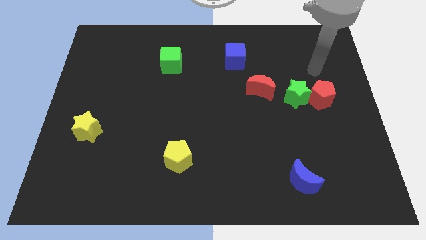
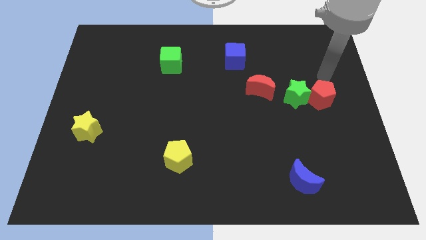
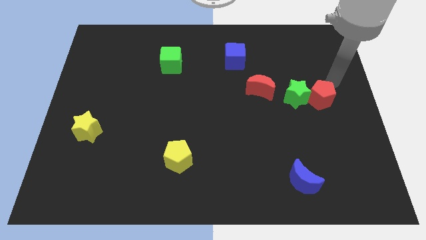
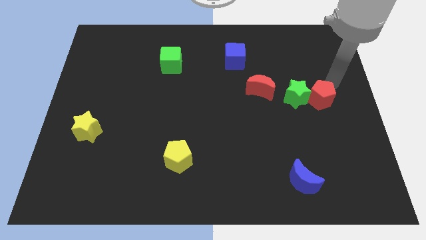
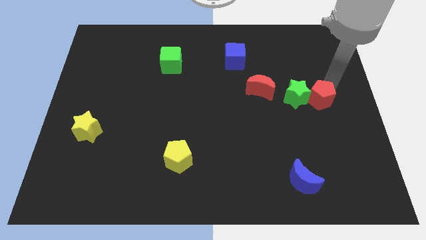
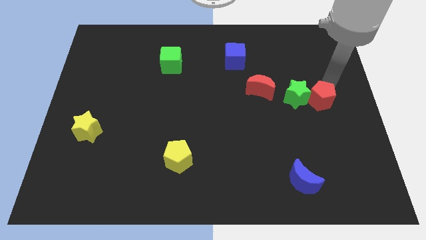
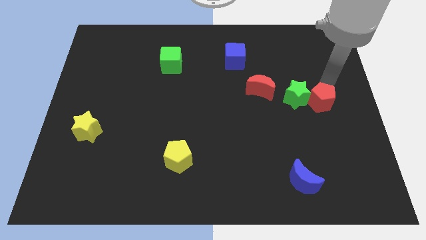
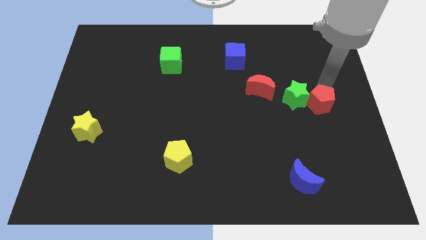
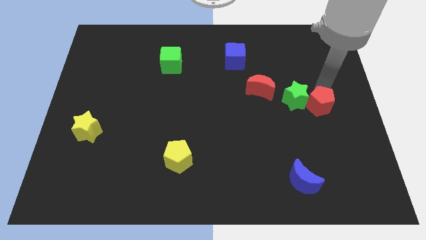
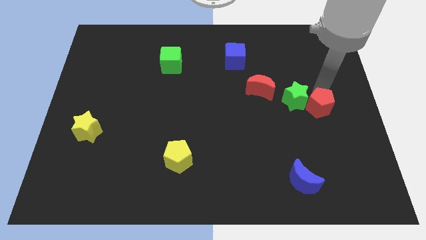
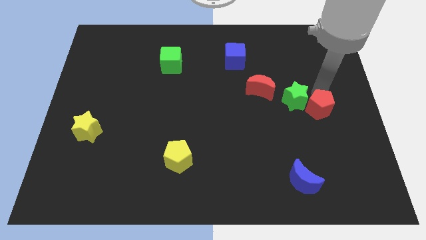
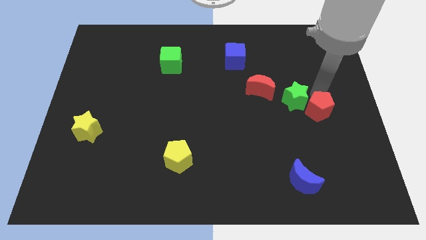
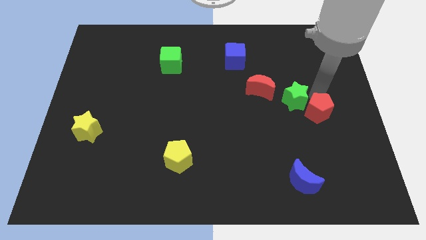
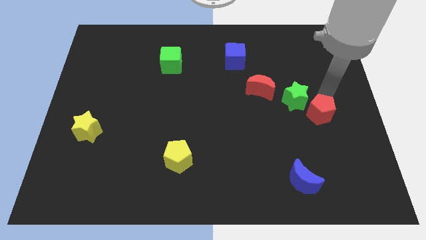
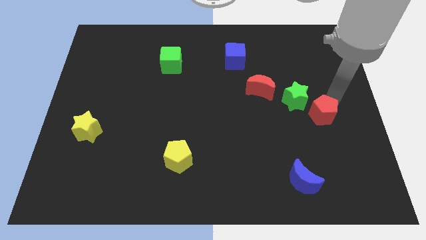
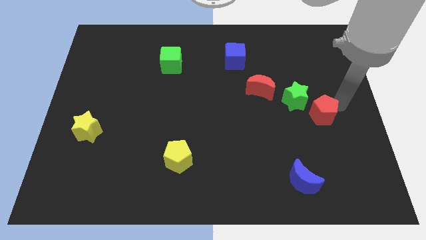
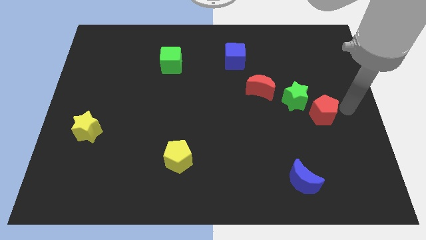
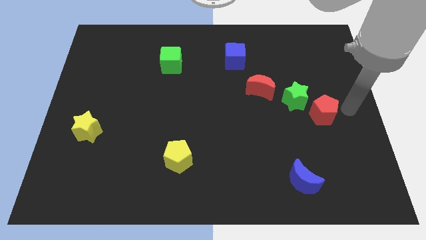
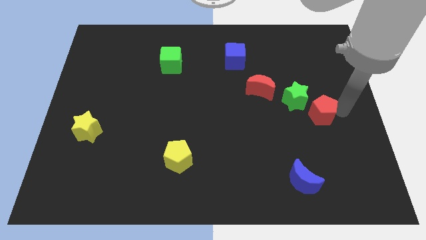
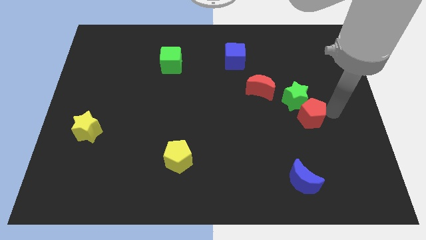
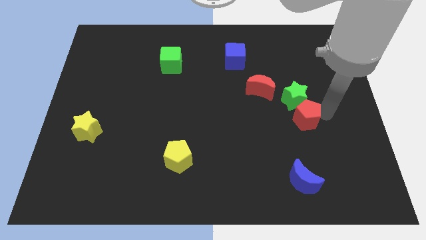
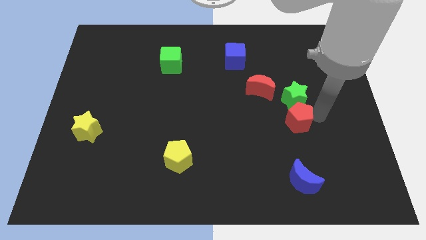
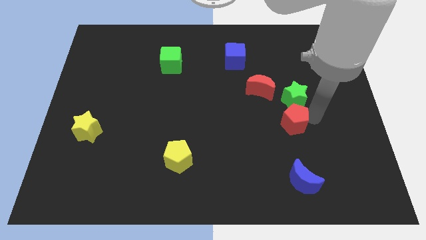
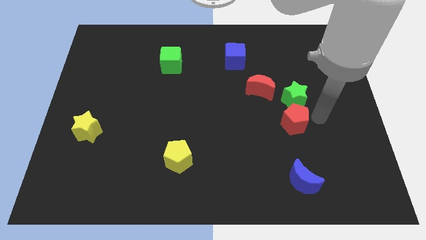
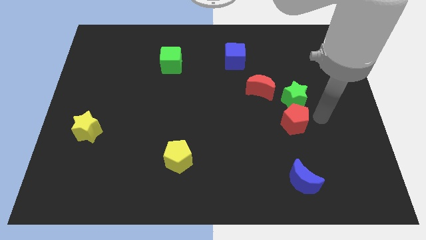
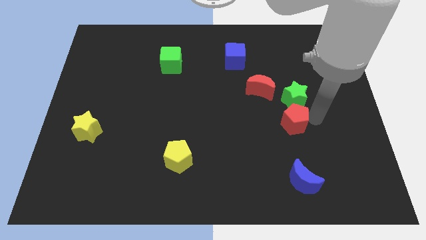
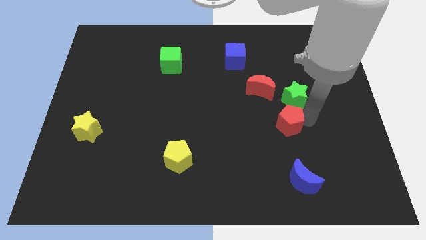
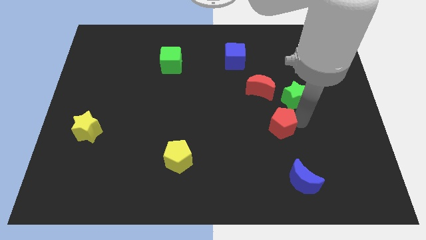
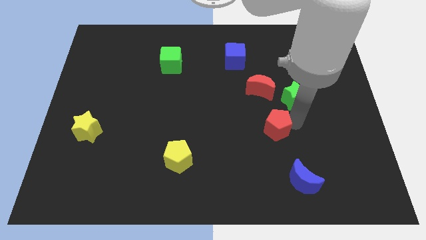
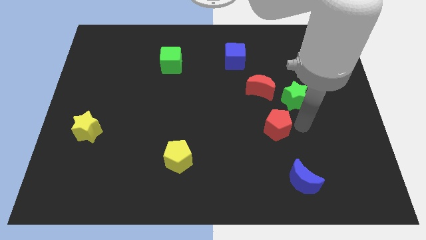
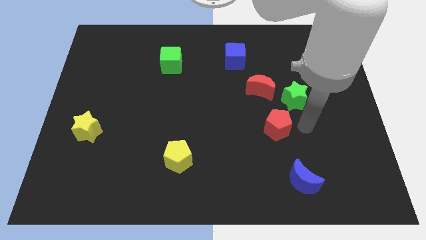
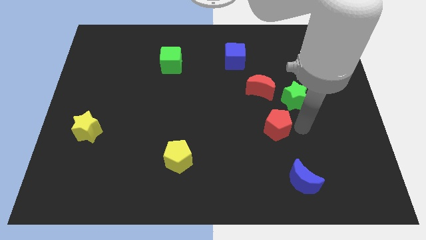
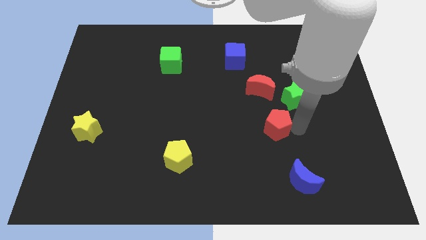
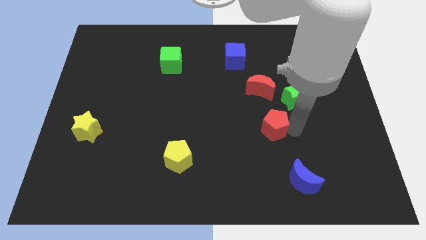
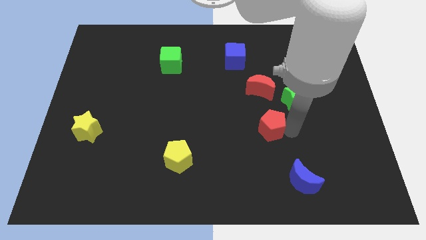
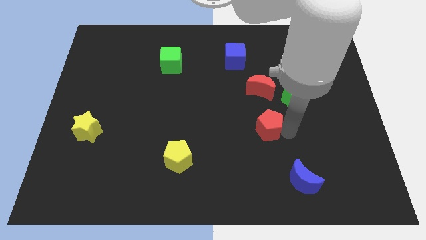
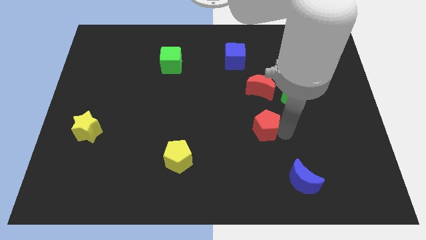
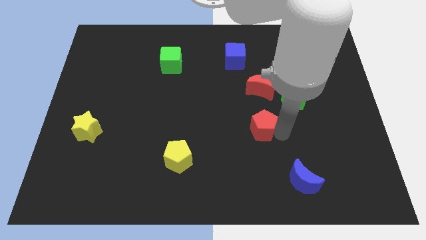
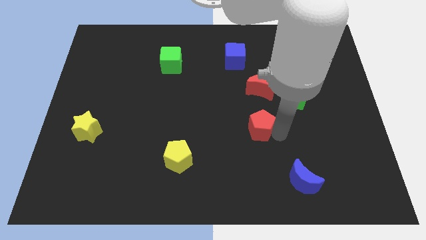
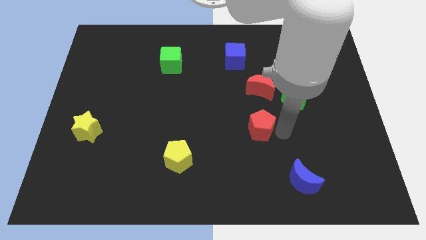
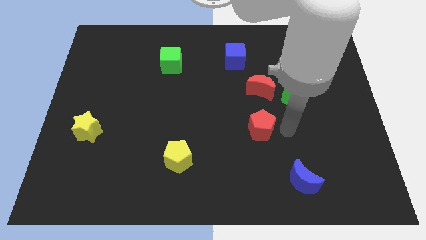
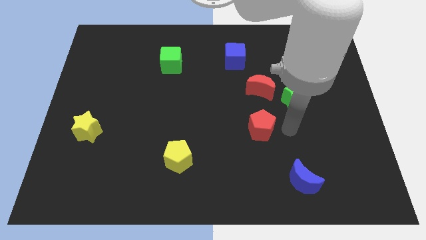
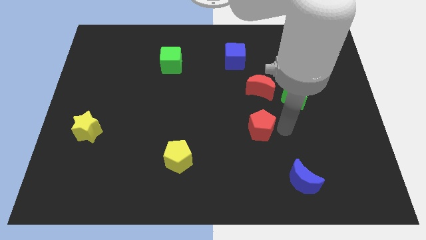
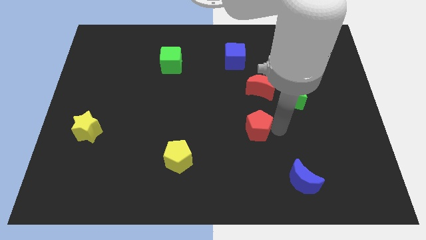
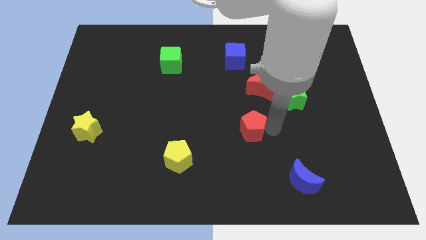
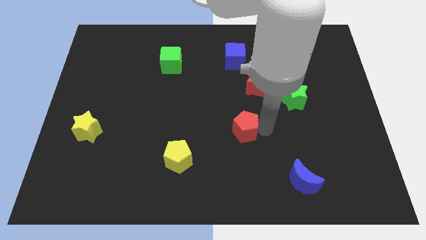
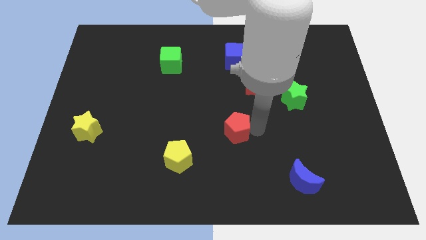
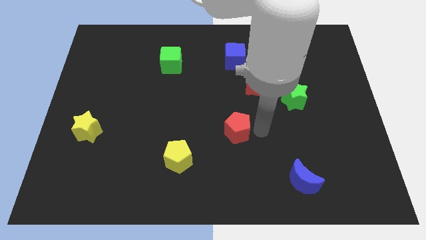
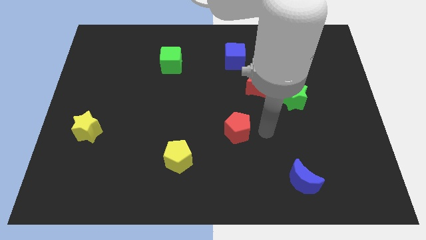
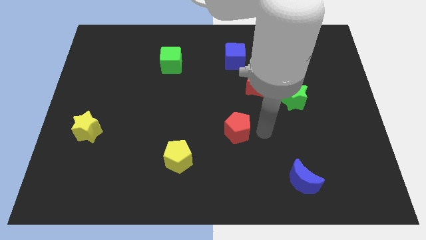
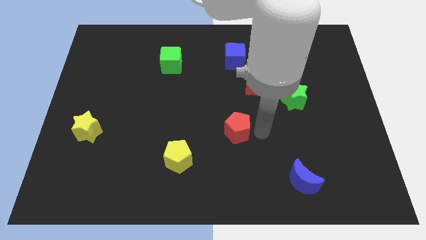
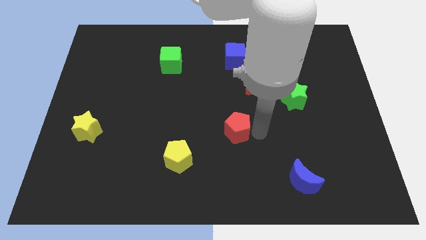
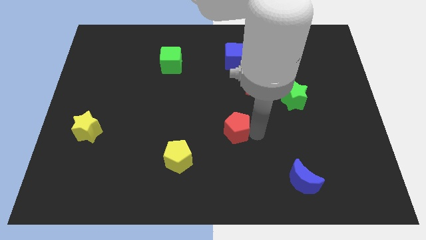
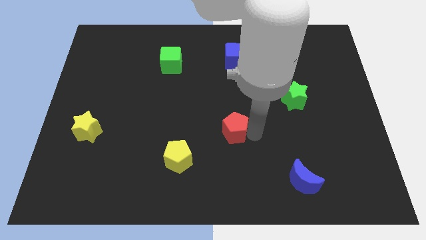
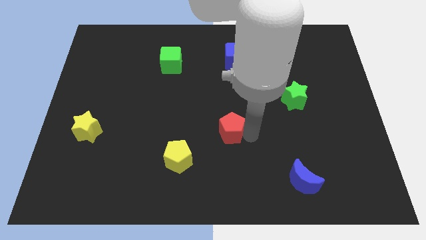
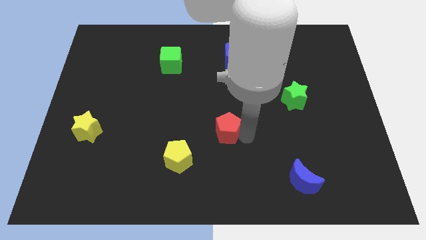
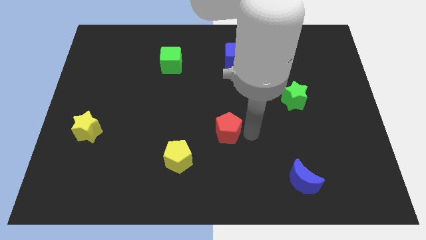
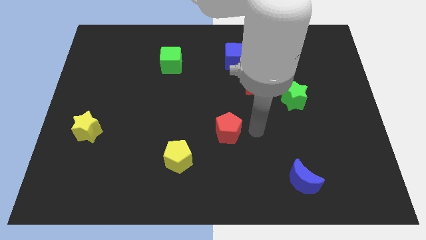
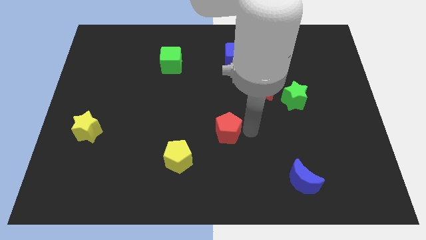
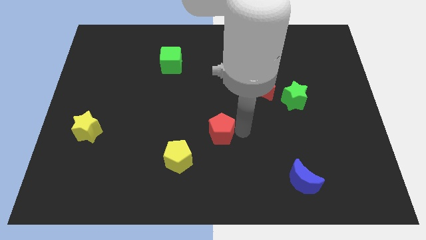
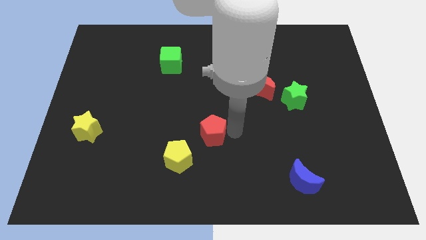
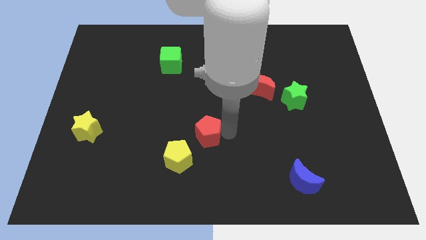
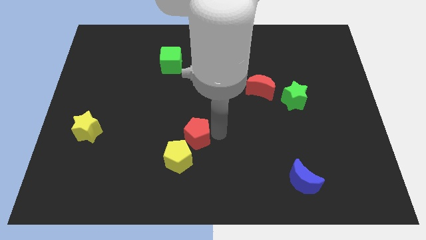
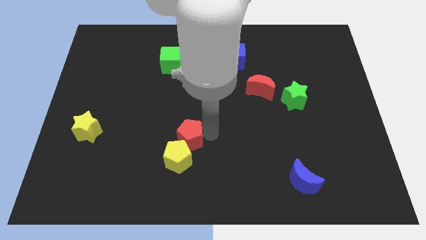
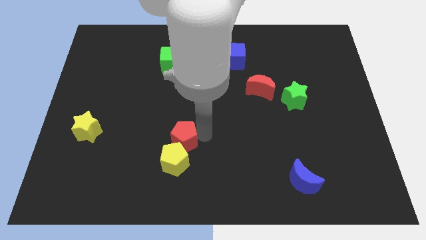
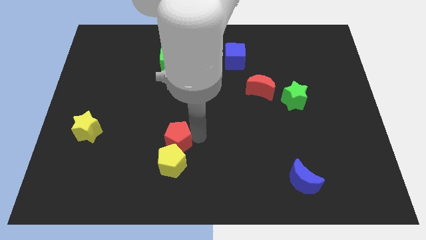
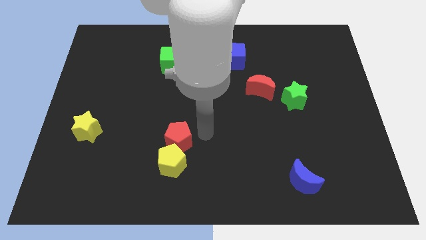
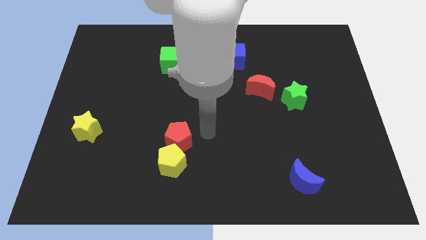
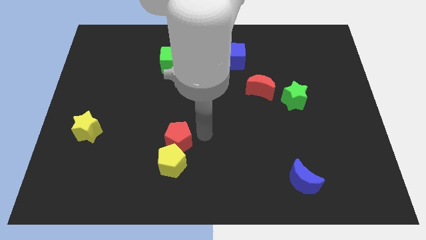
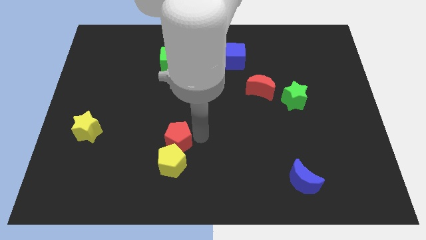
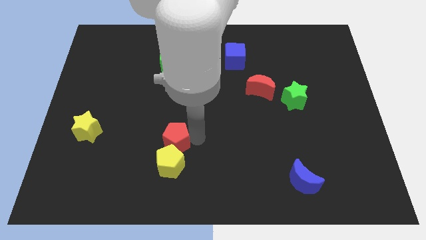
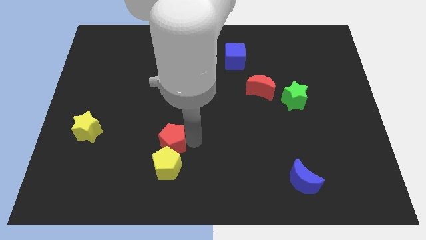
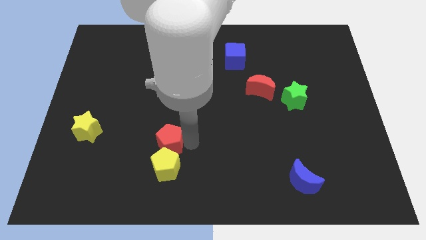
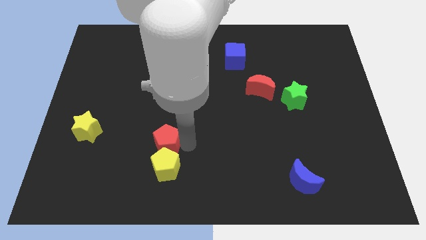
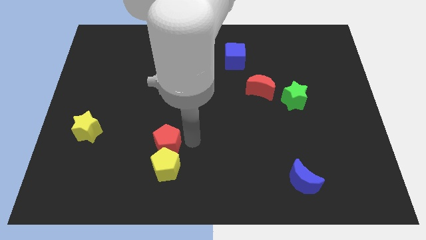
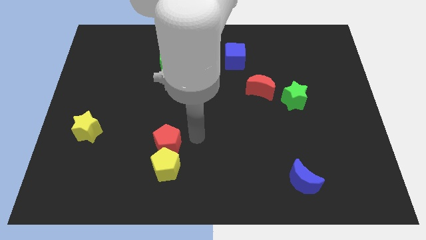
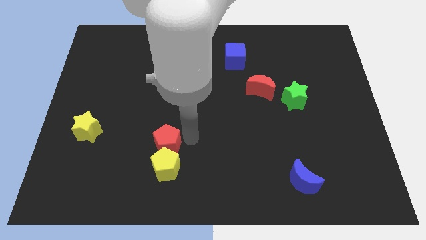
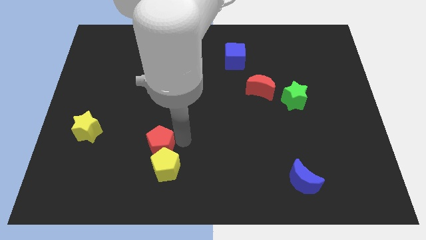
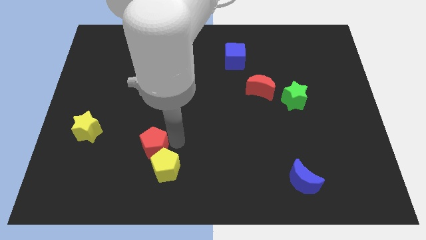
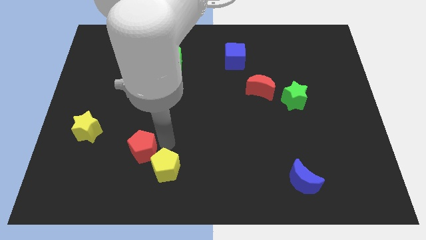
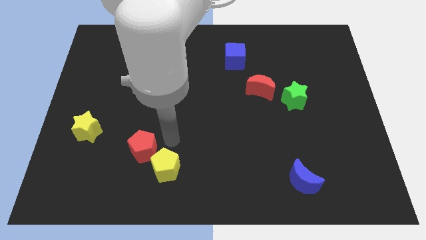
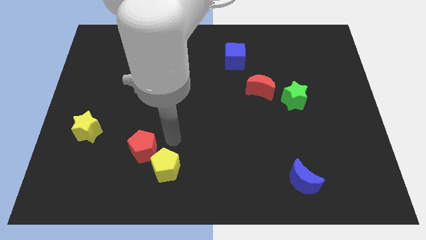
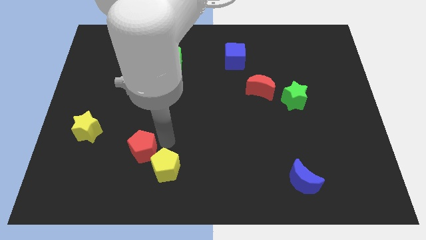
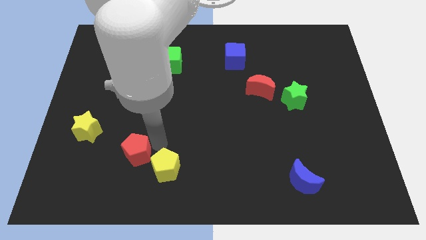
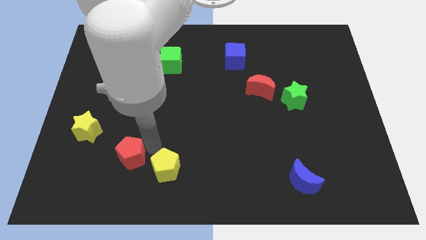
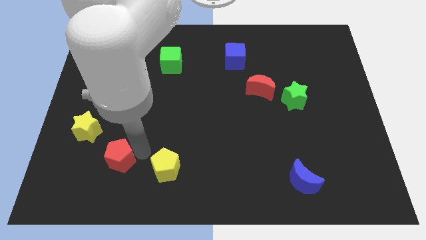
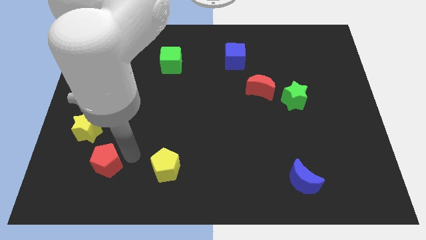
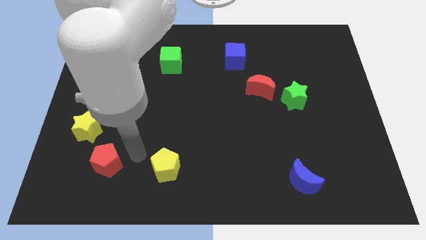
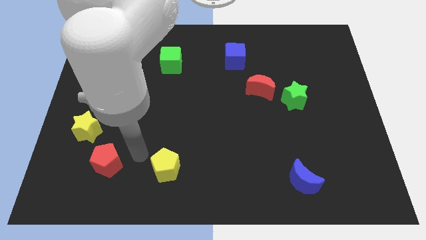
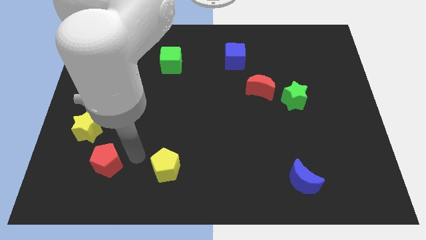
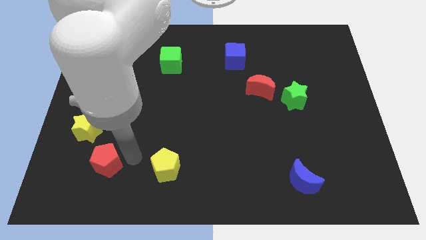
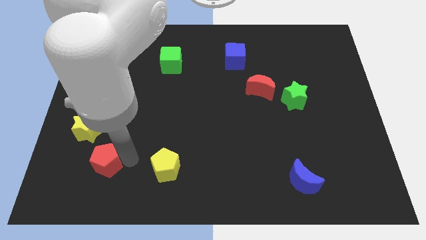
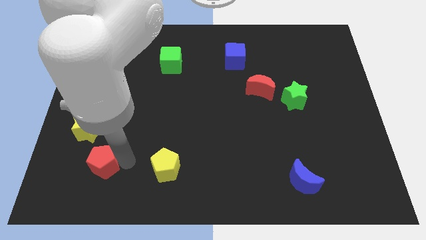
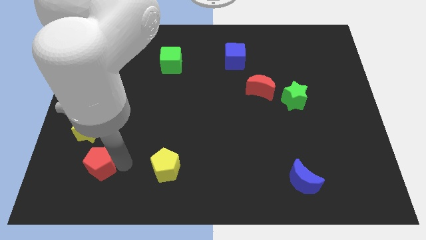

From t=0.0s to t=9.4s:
slide the red pentagon below the yellow star
